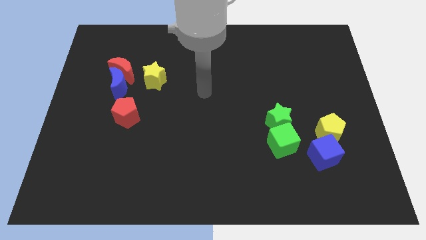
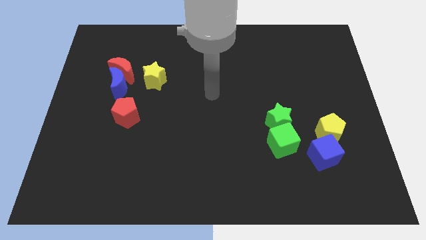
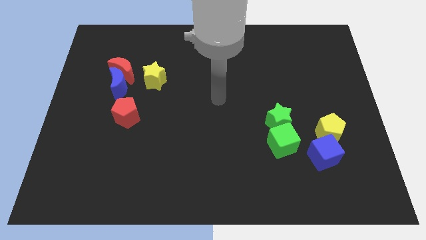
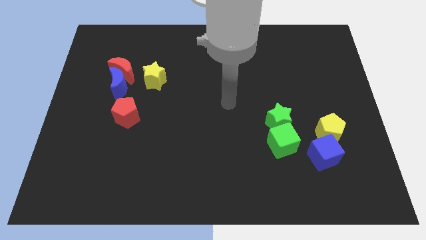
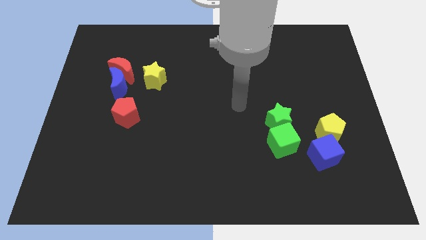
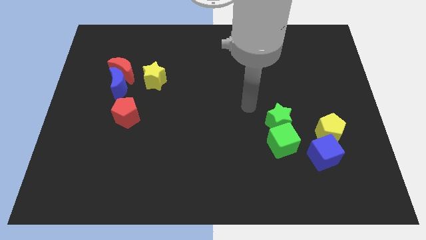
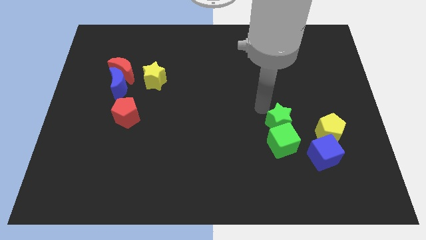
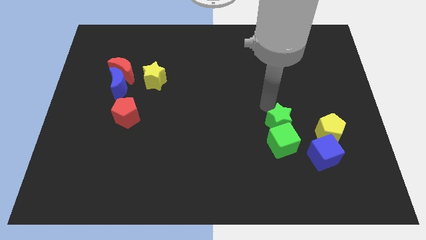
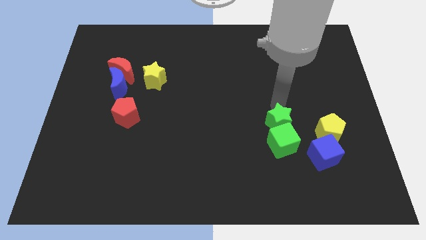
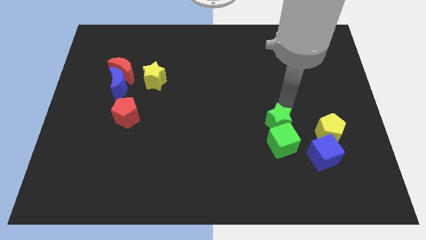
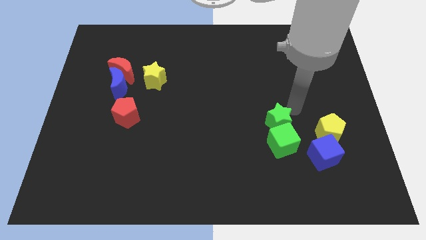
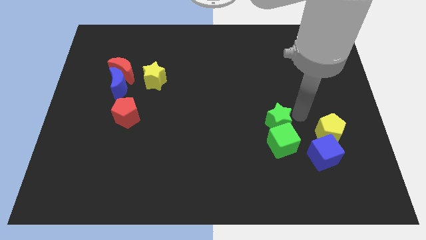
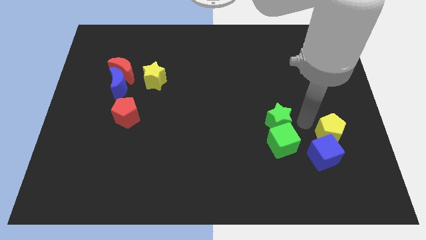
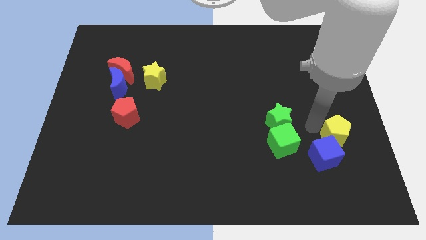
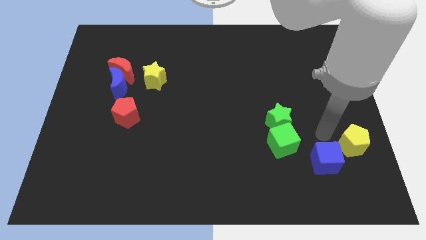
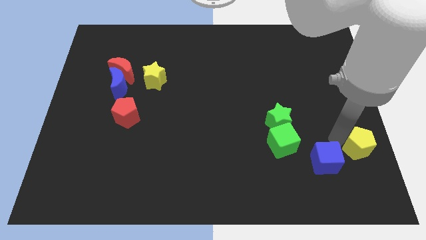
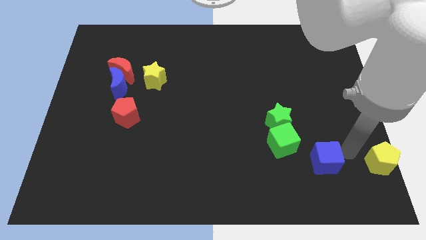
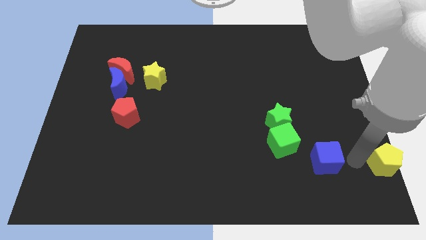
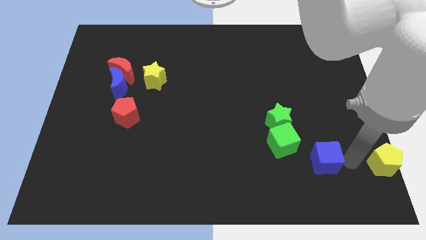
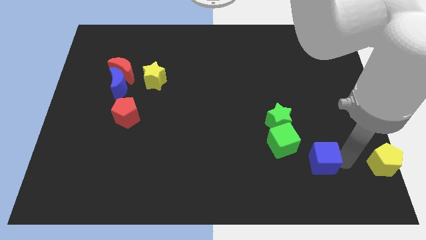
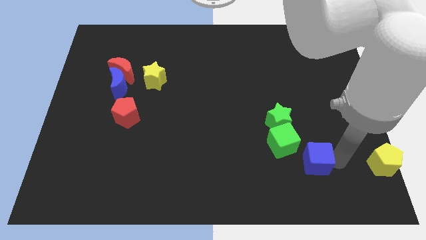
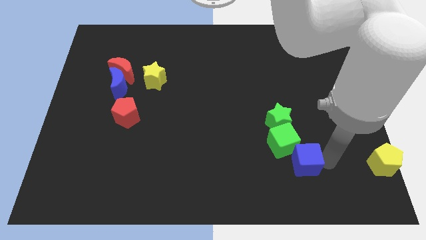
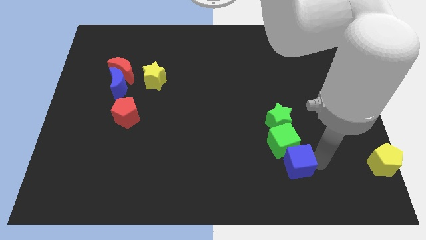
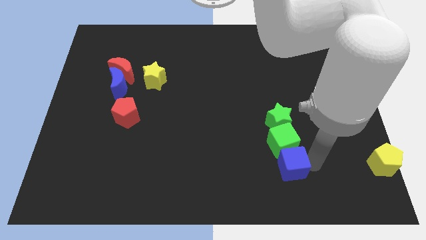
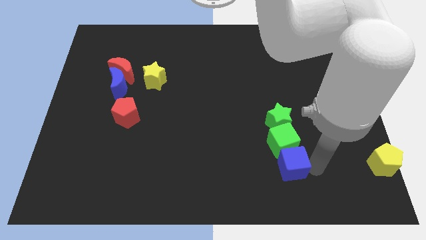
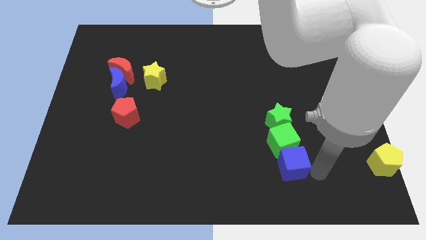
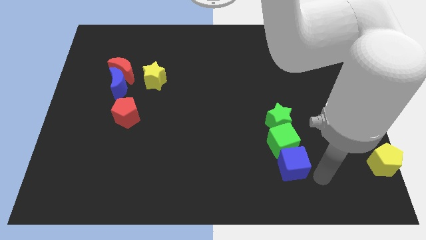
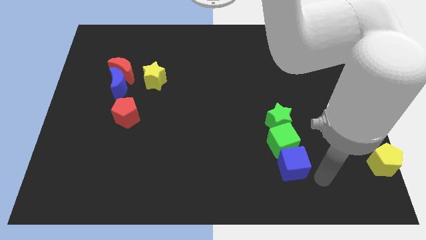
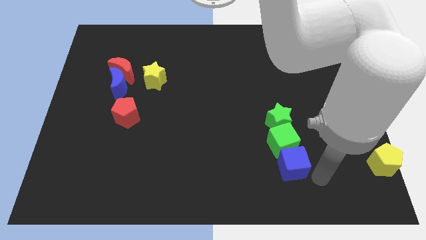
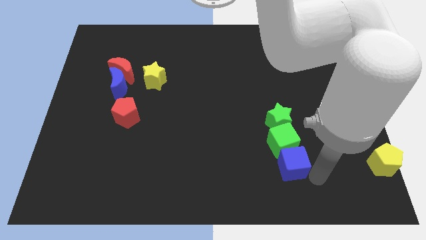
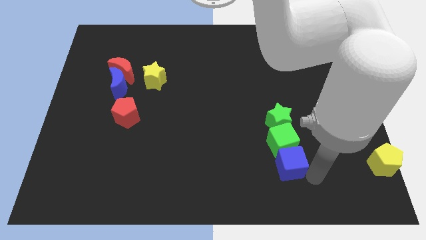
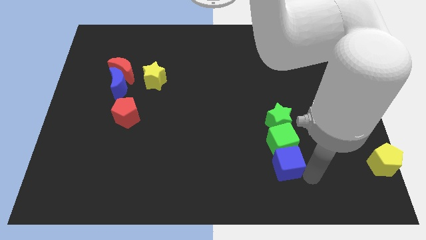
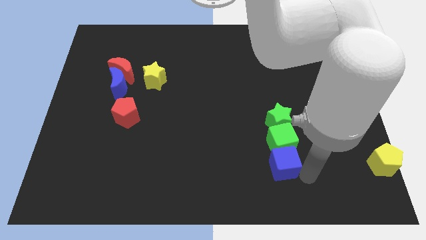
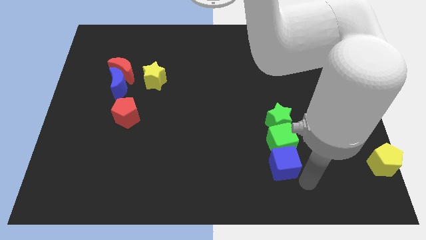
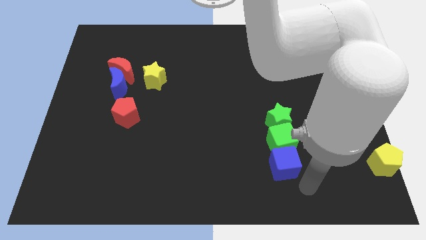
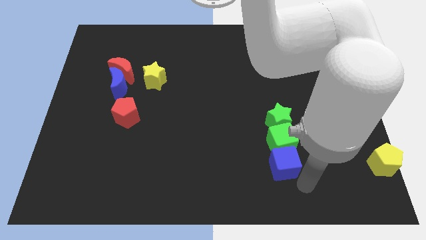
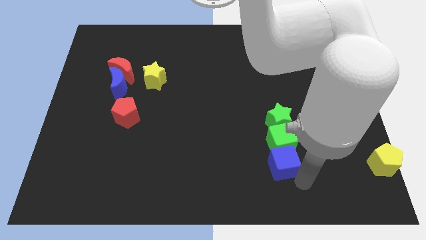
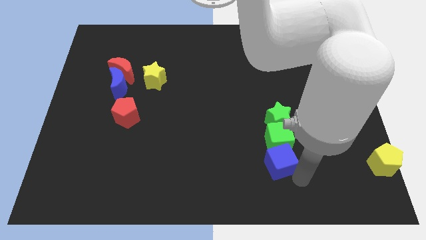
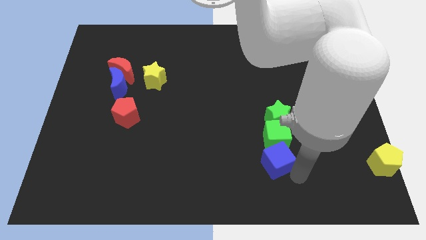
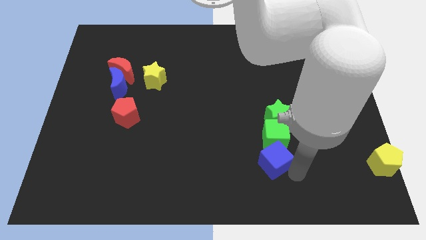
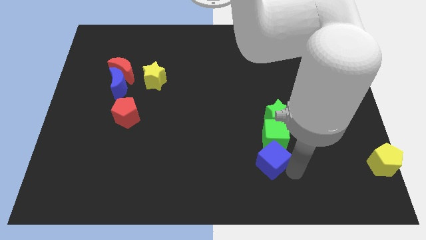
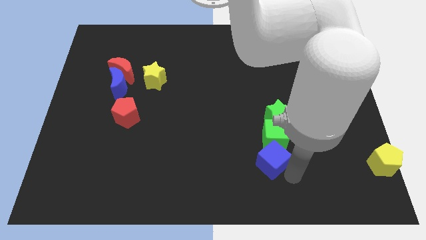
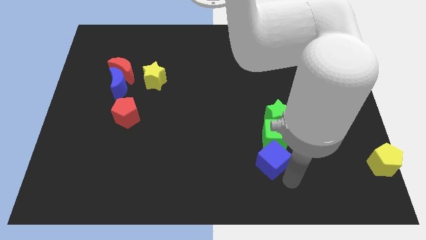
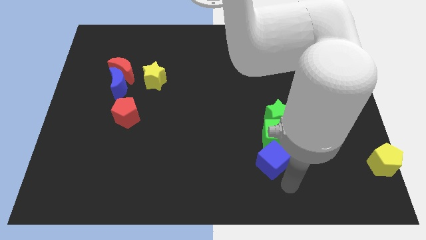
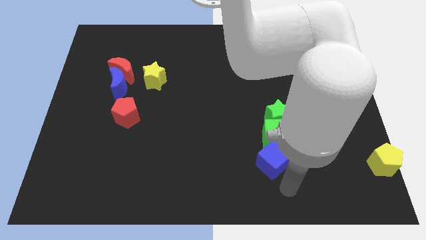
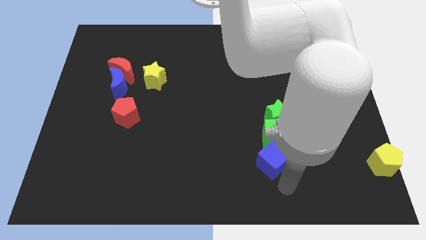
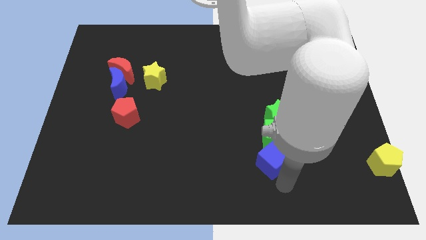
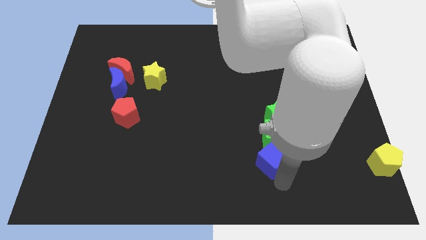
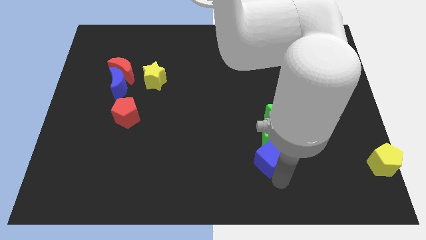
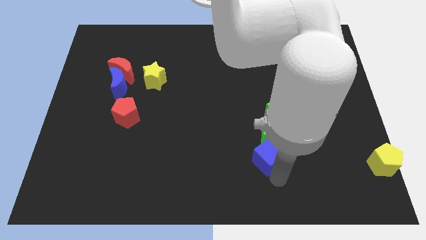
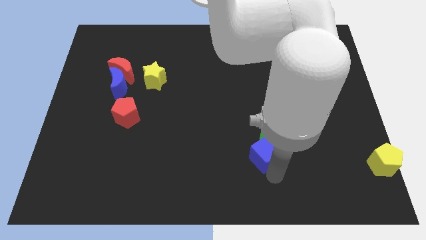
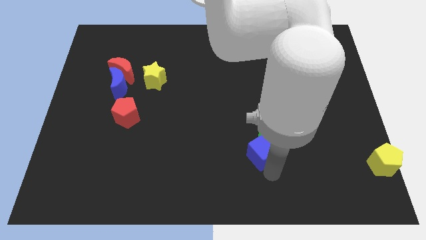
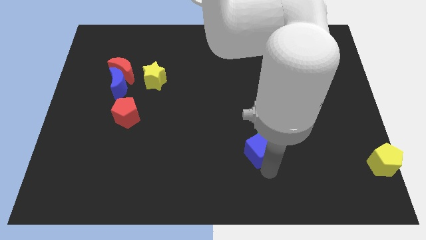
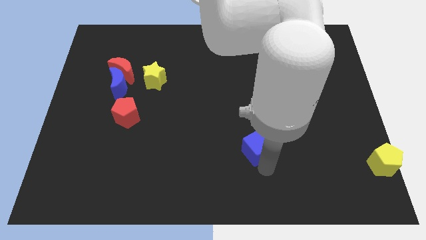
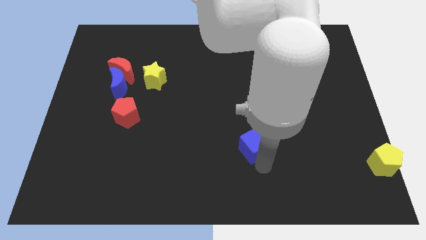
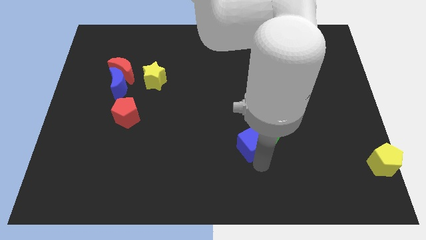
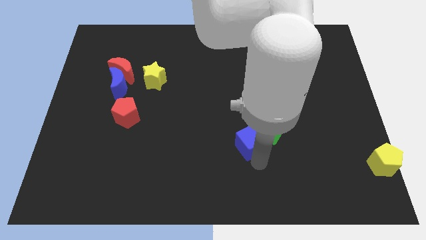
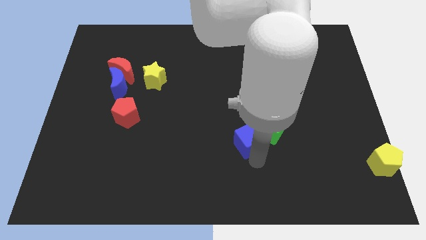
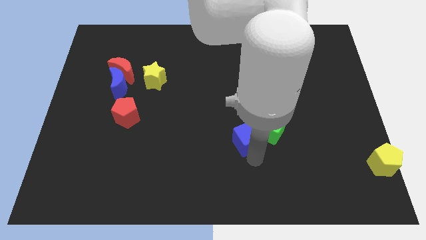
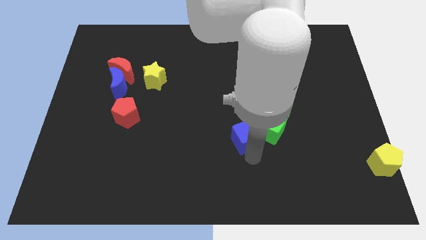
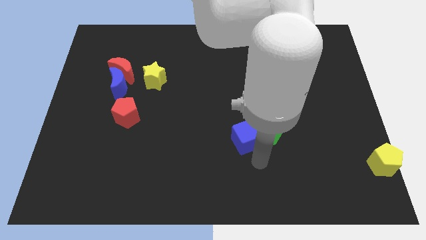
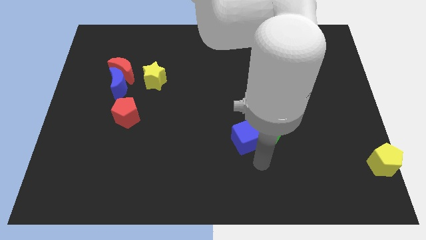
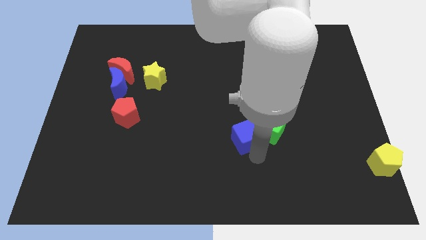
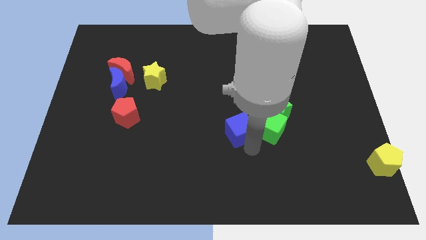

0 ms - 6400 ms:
push the blue cube to the middle of the board

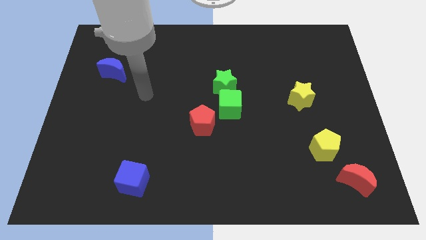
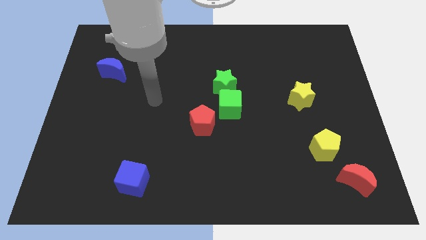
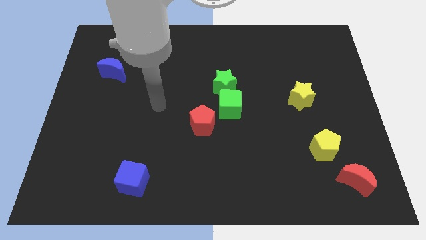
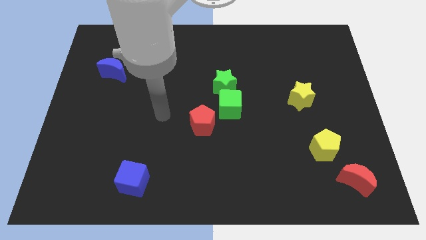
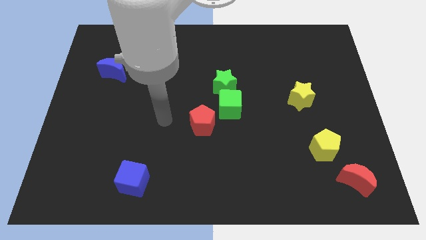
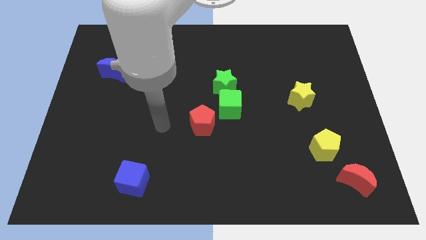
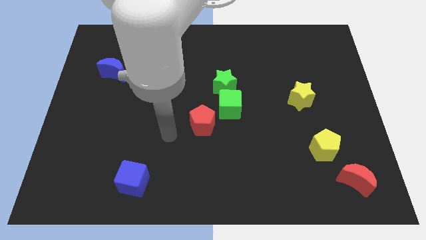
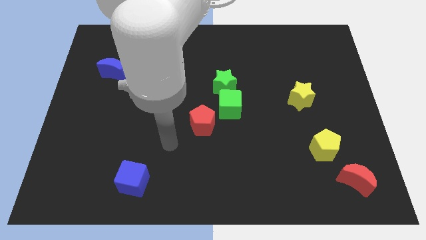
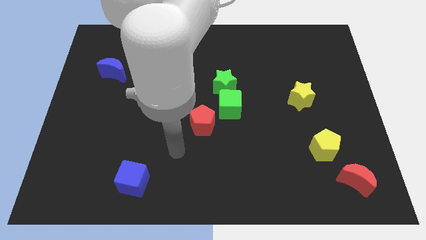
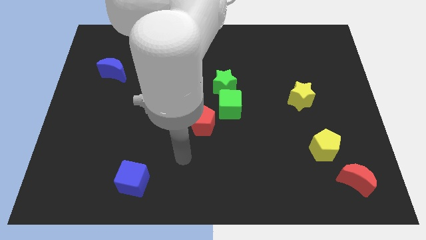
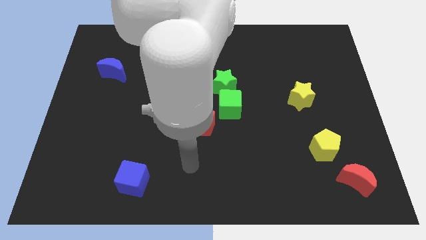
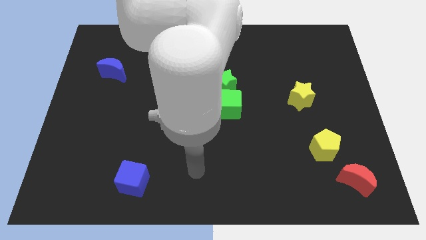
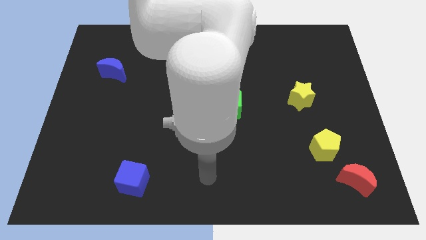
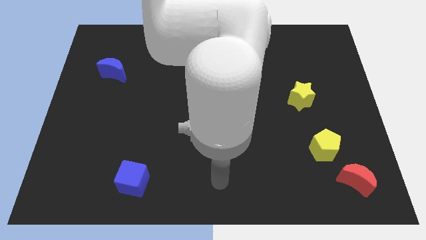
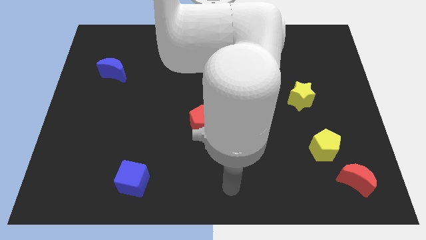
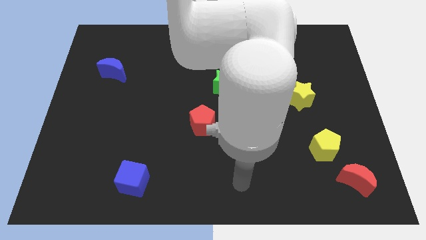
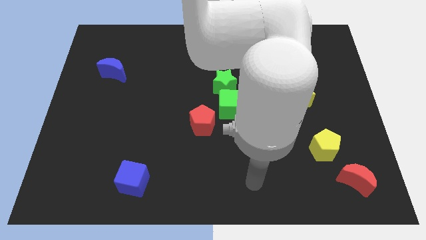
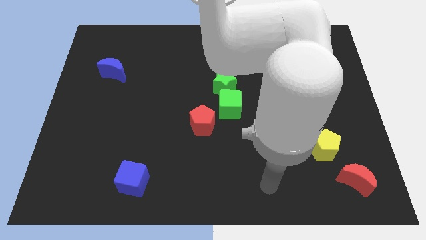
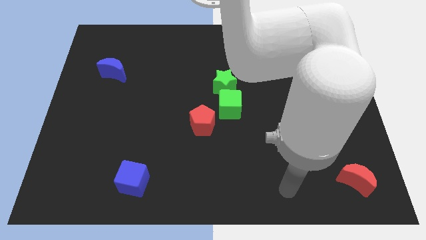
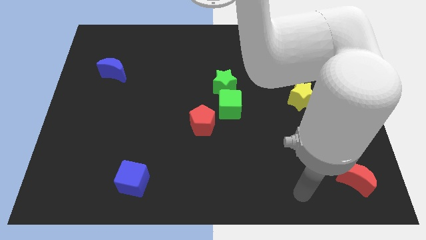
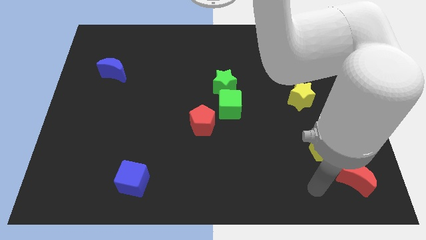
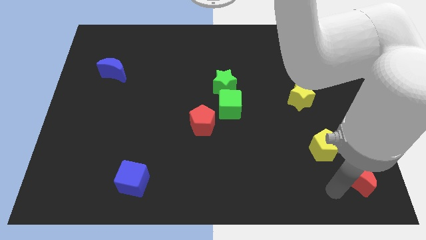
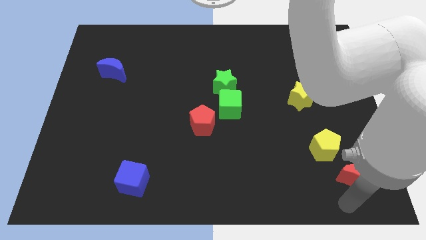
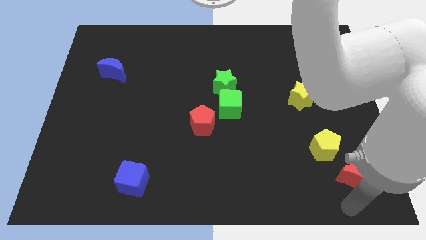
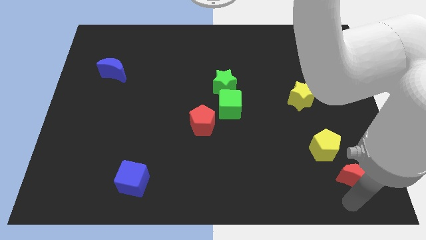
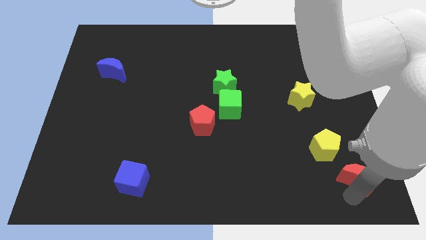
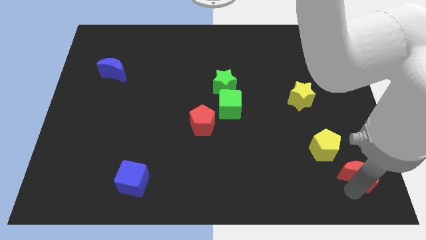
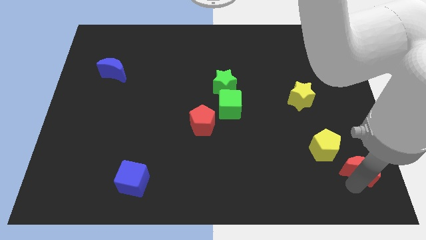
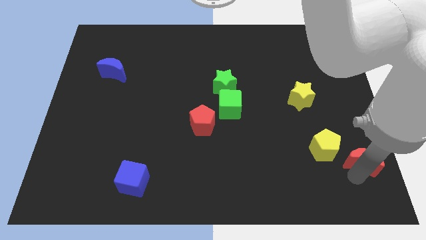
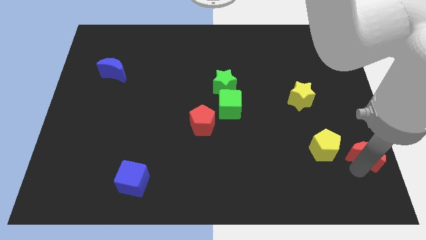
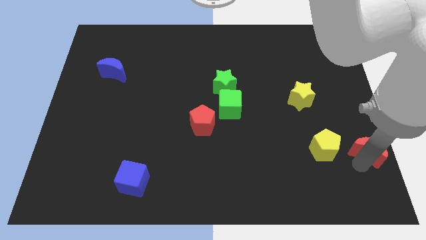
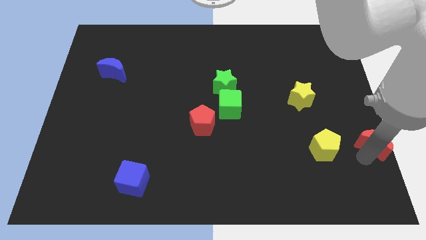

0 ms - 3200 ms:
put the red moon to the right side
